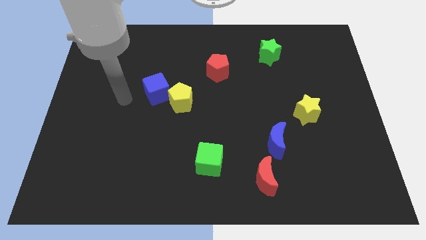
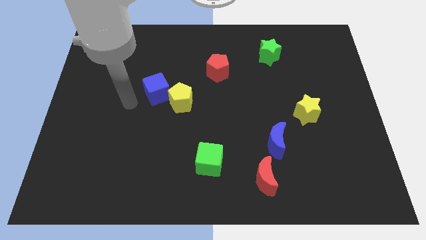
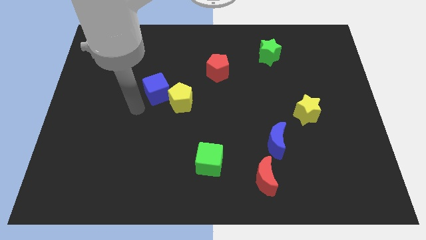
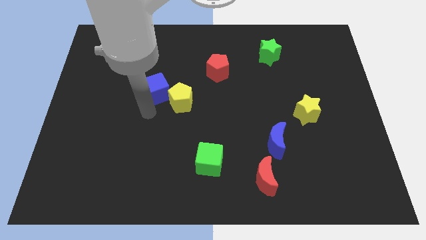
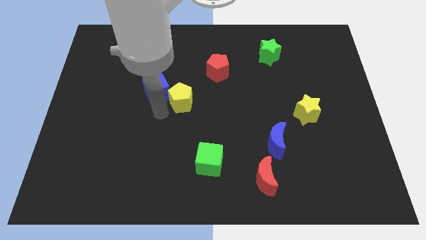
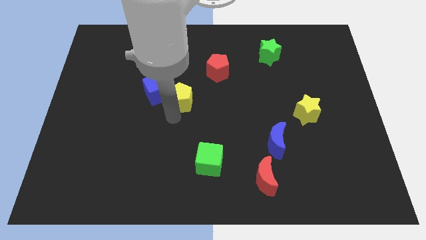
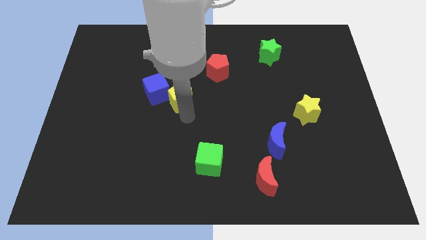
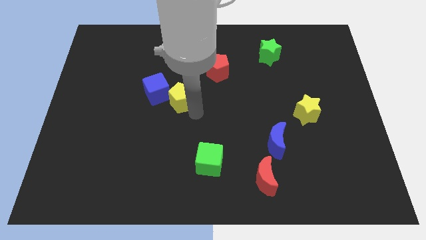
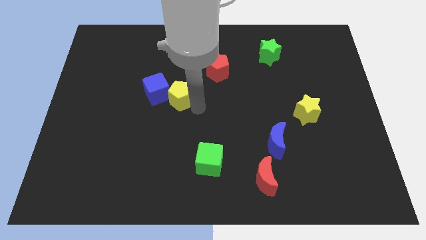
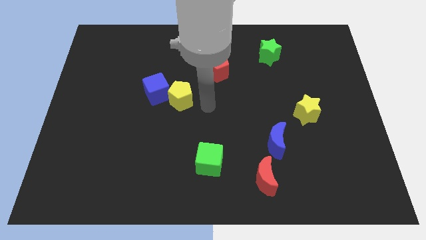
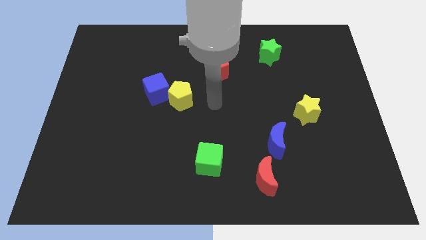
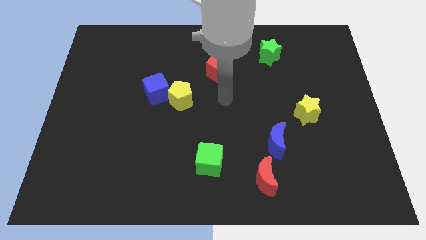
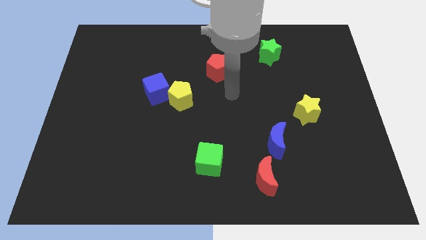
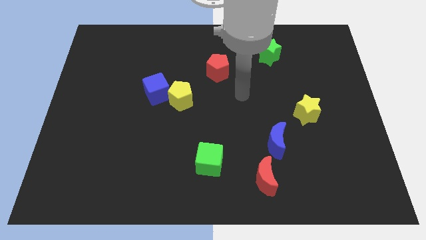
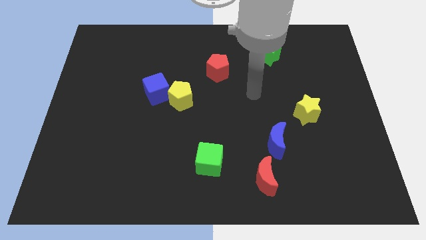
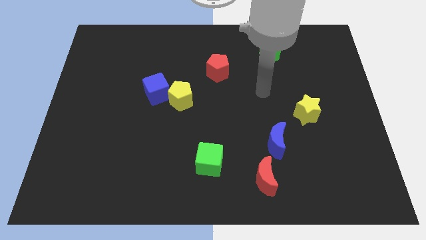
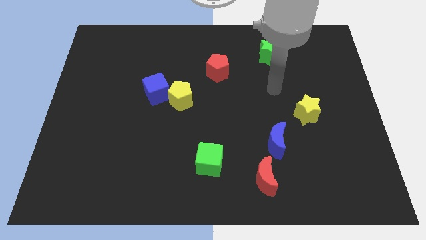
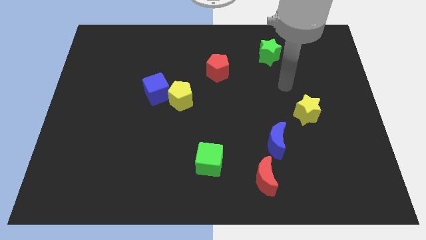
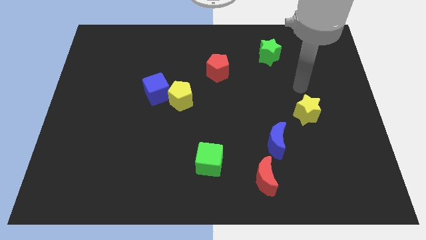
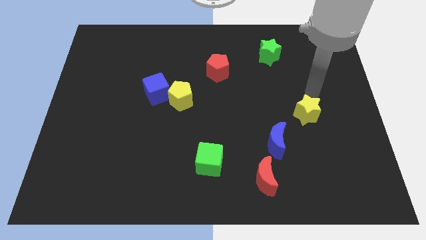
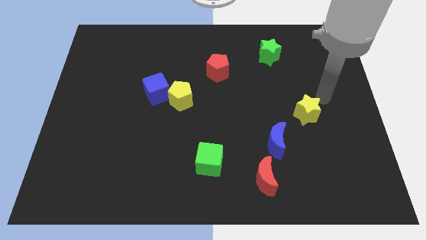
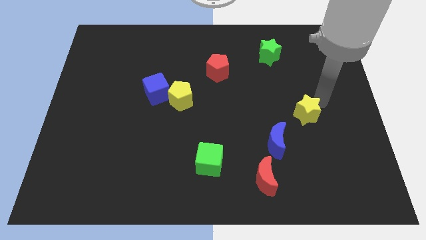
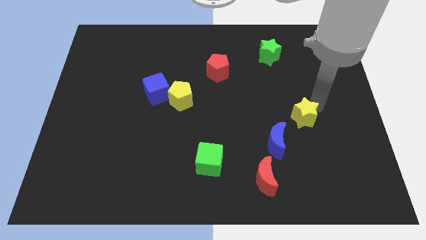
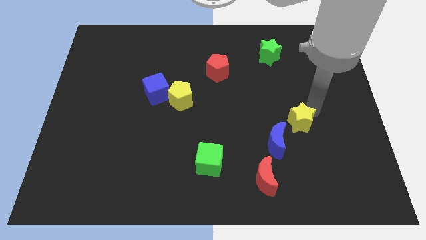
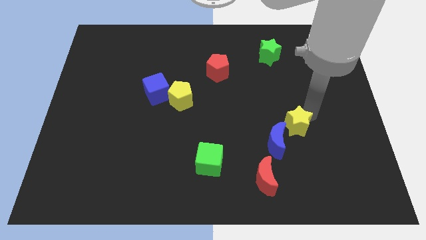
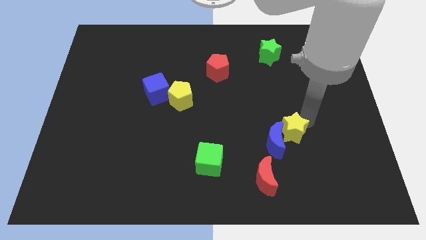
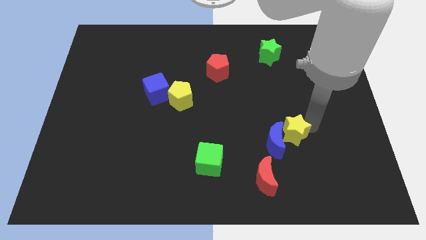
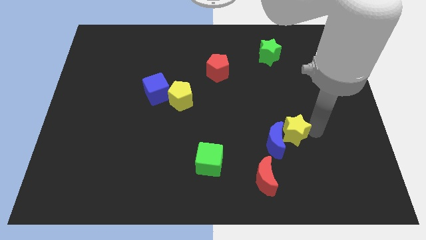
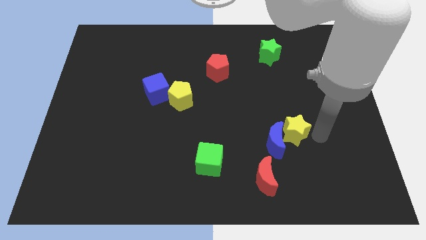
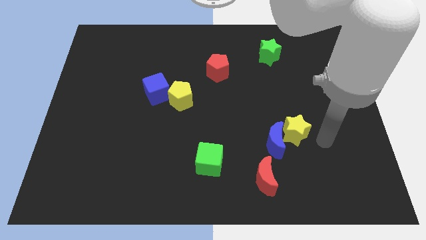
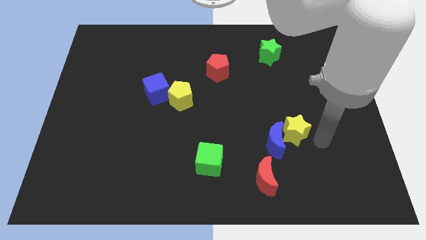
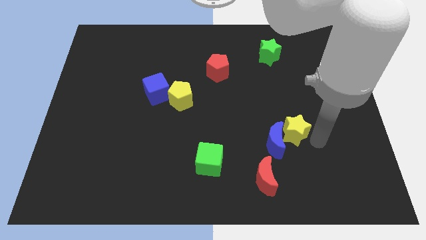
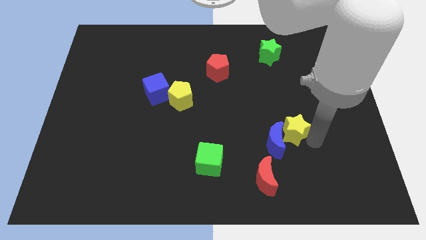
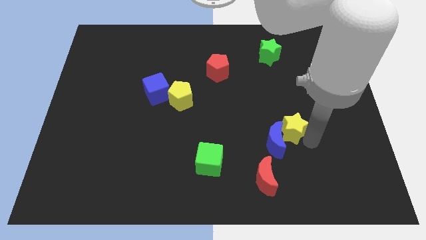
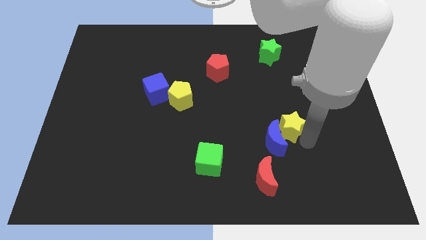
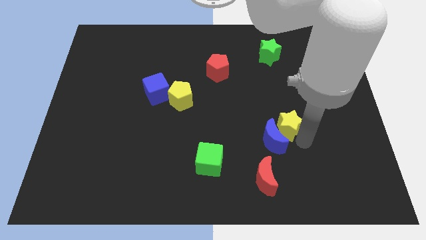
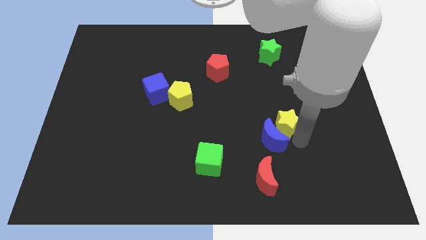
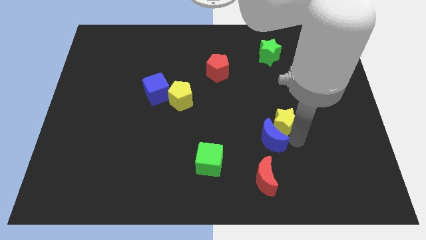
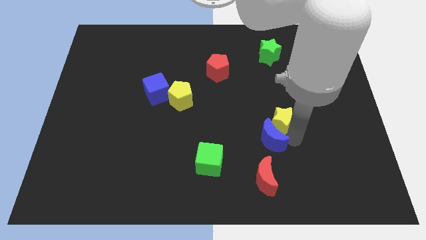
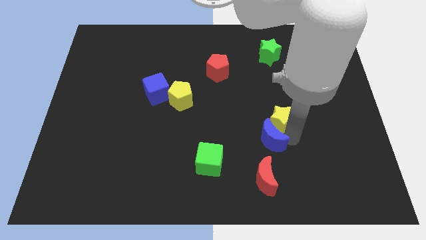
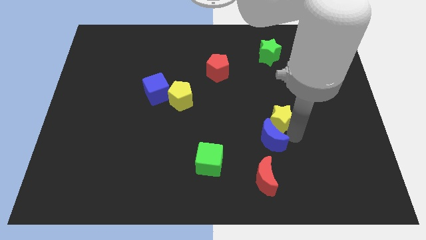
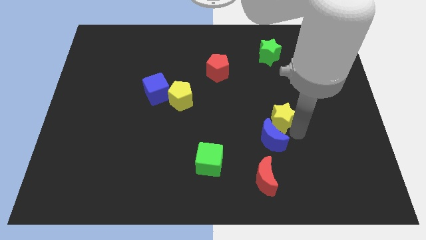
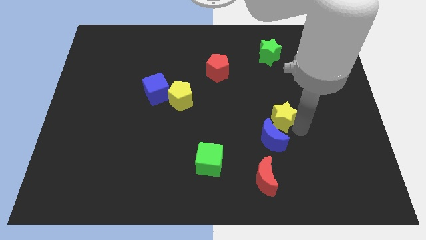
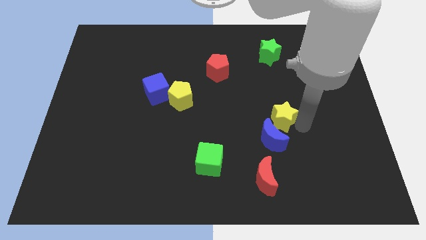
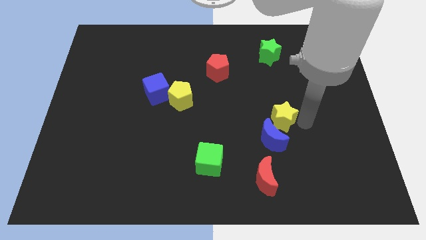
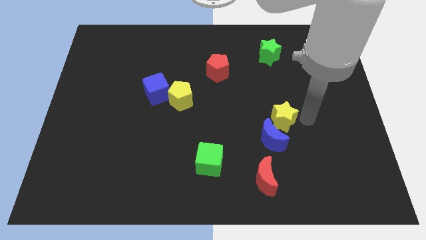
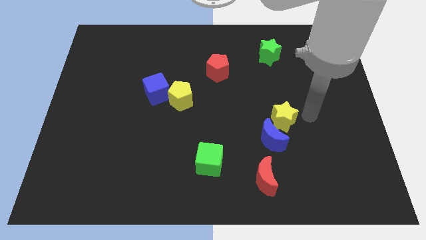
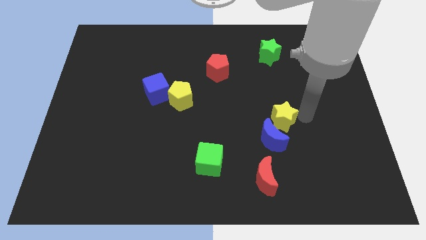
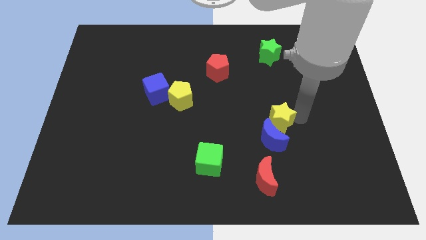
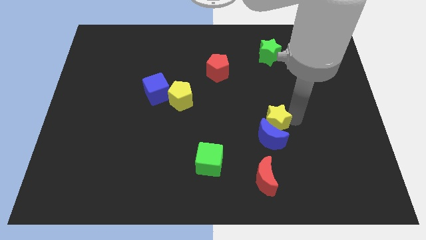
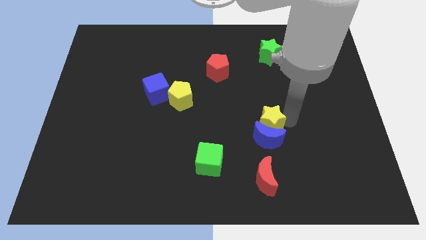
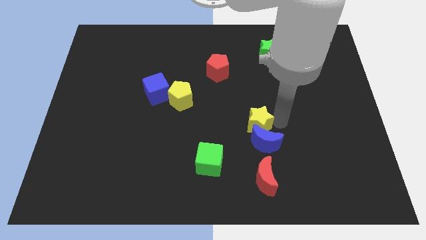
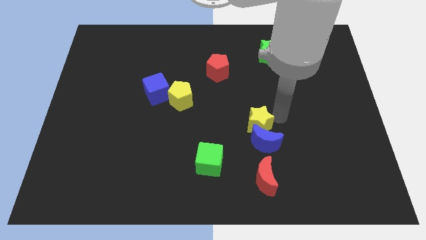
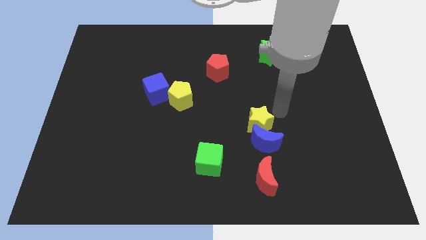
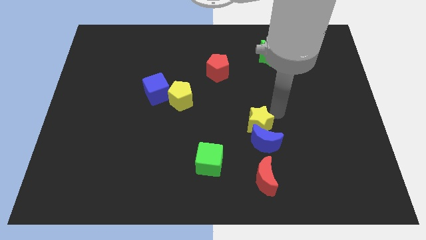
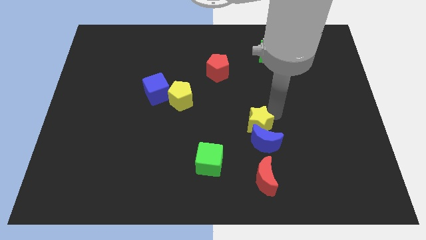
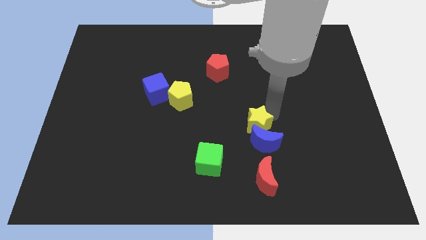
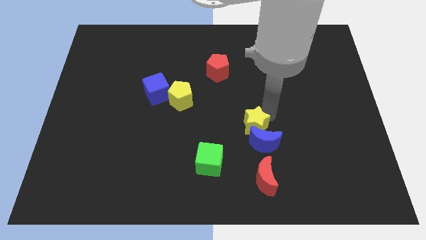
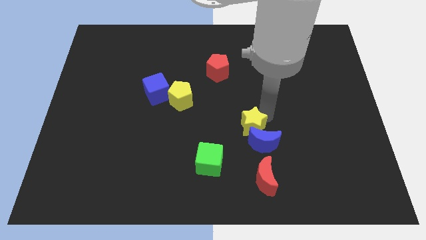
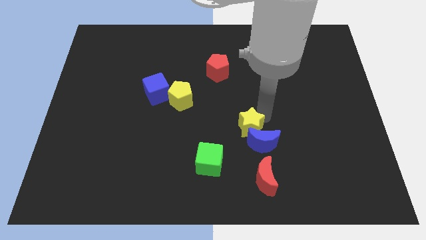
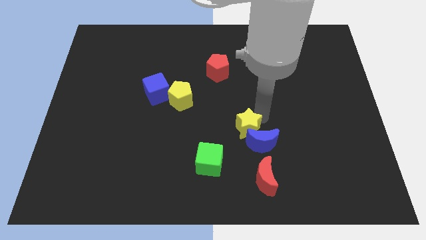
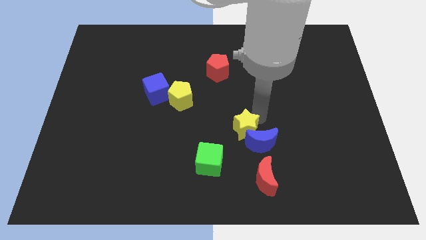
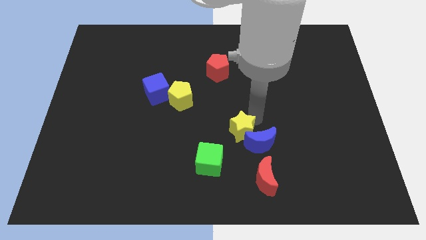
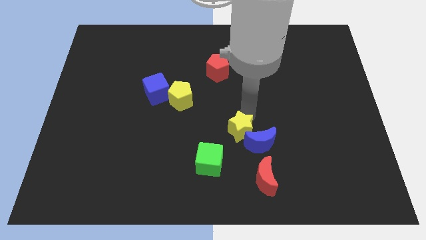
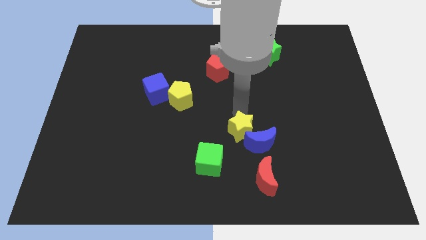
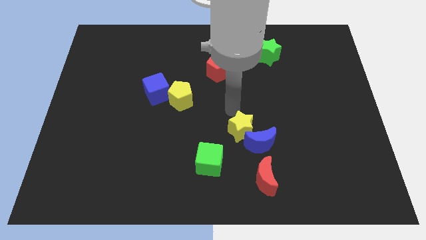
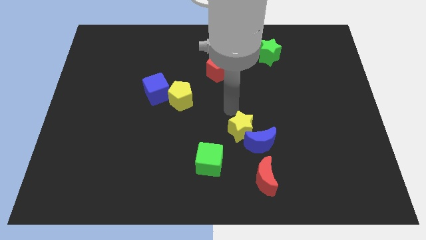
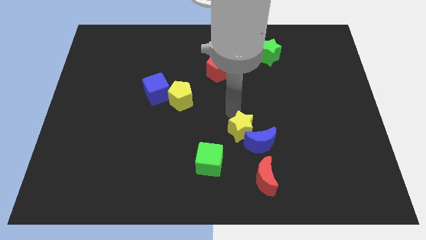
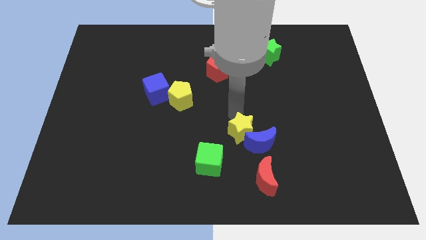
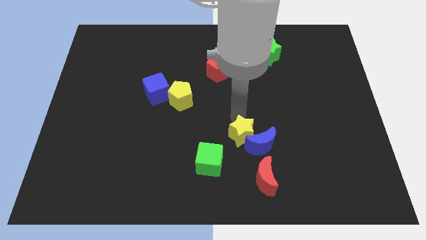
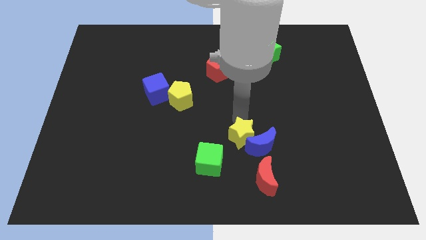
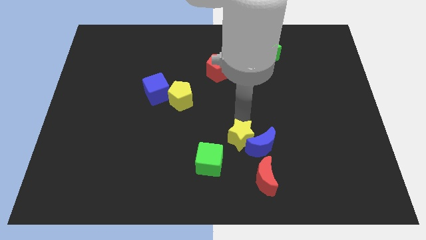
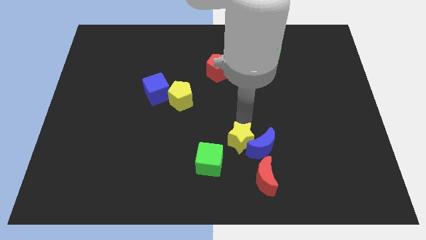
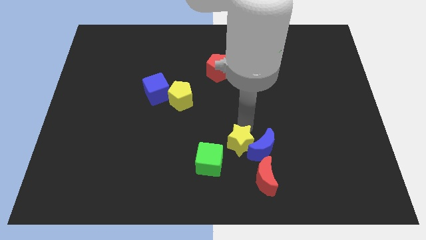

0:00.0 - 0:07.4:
move the yellow star just right of the green cube
